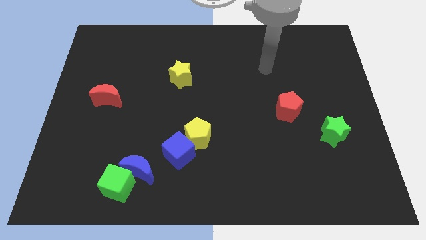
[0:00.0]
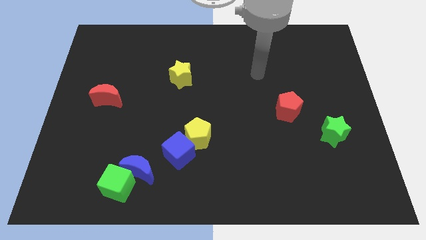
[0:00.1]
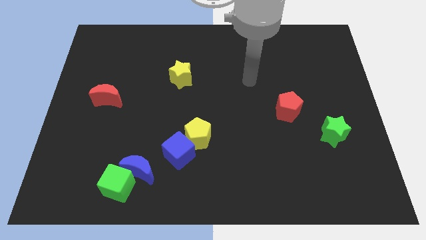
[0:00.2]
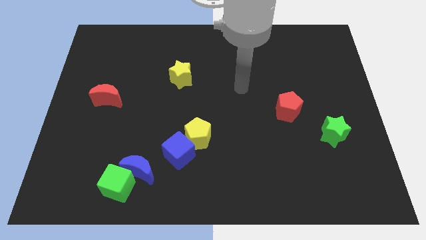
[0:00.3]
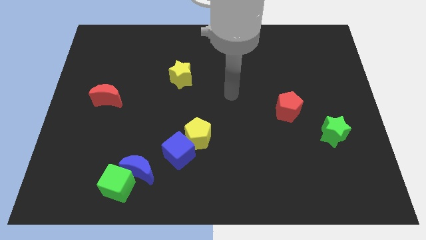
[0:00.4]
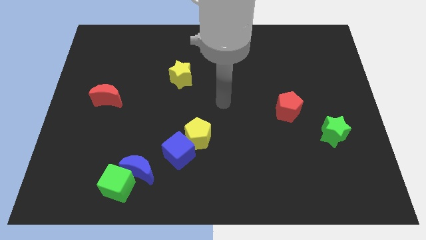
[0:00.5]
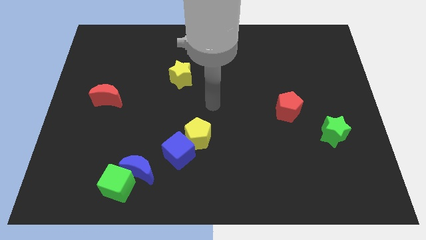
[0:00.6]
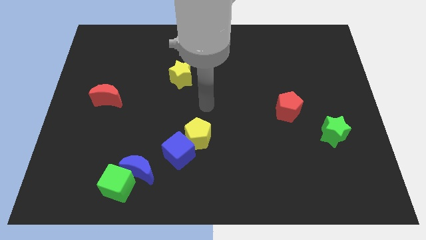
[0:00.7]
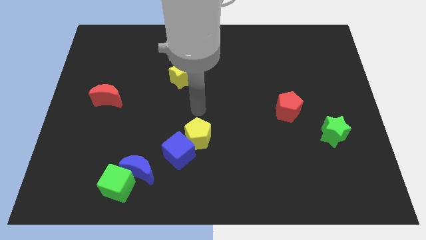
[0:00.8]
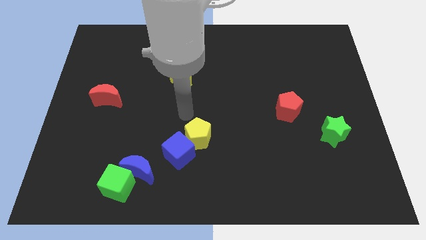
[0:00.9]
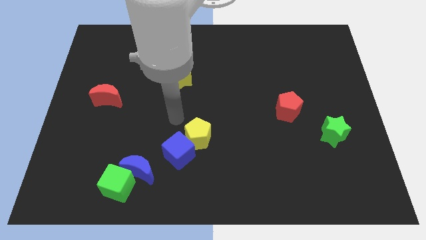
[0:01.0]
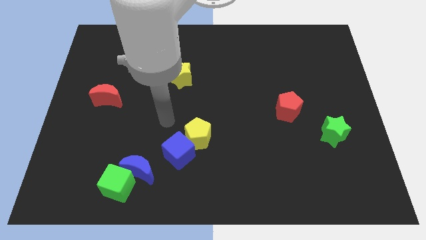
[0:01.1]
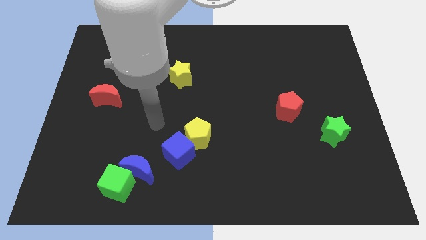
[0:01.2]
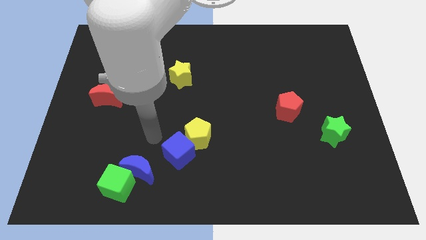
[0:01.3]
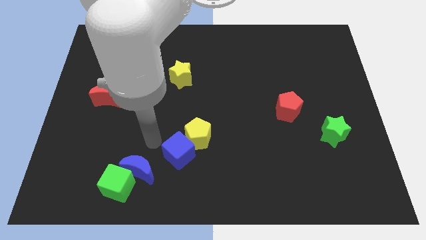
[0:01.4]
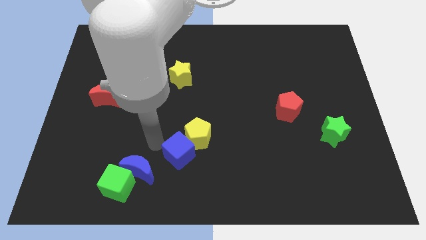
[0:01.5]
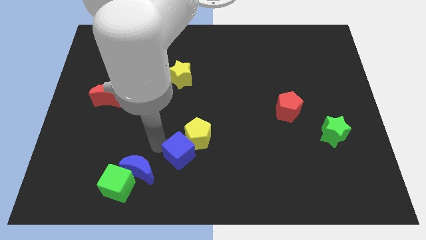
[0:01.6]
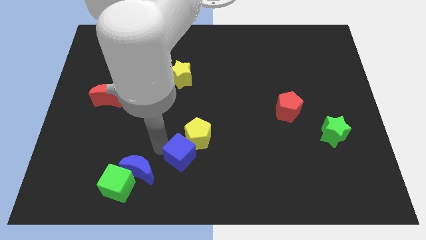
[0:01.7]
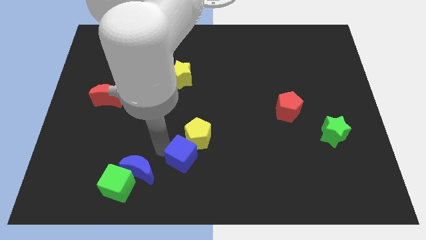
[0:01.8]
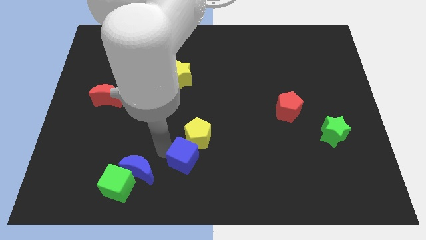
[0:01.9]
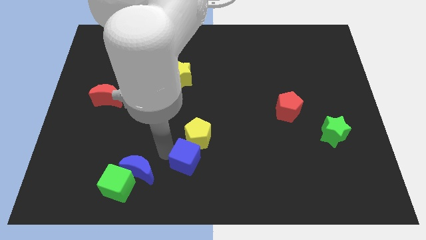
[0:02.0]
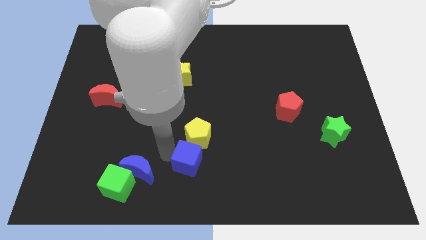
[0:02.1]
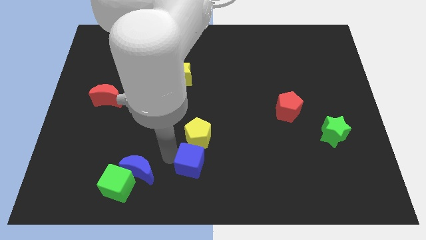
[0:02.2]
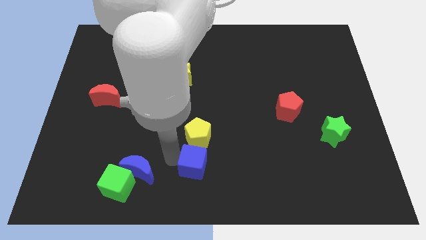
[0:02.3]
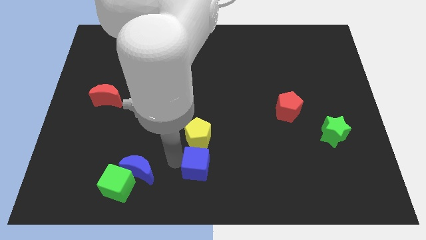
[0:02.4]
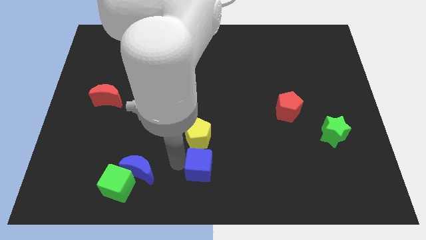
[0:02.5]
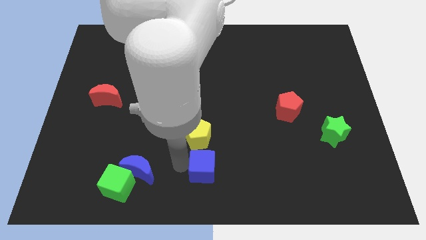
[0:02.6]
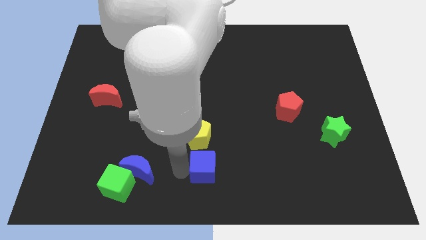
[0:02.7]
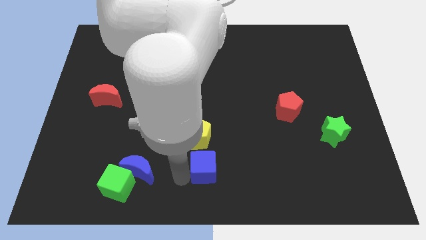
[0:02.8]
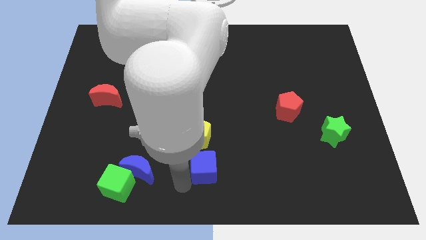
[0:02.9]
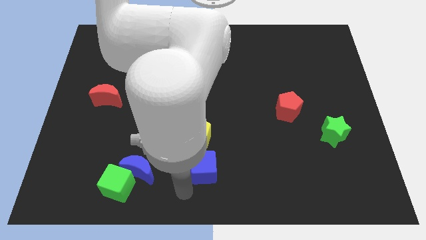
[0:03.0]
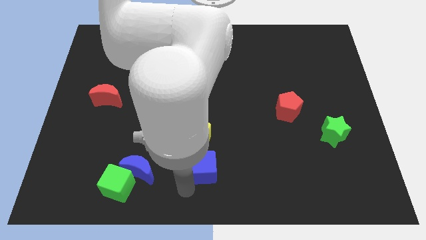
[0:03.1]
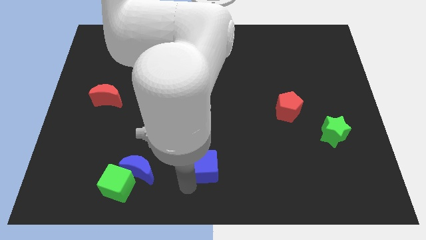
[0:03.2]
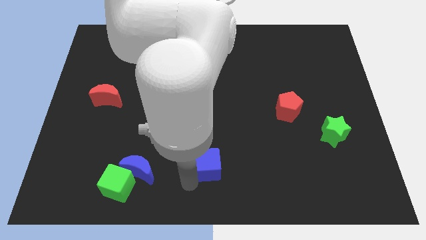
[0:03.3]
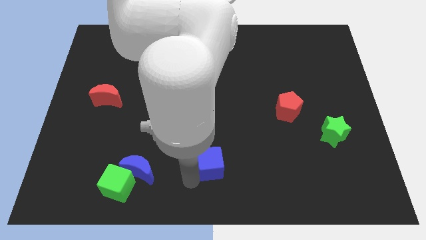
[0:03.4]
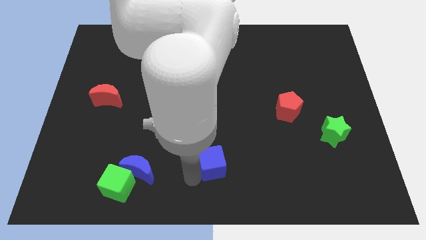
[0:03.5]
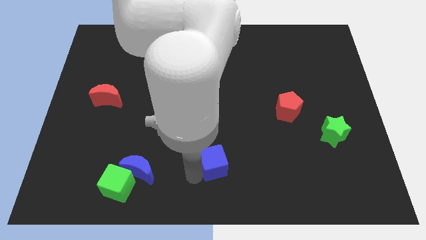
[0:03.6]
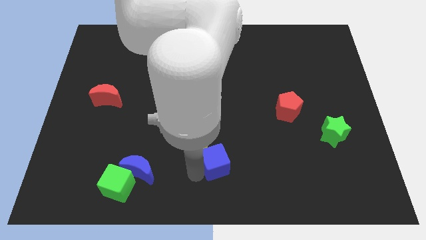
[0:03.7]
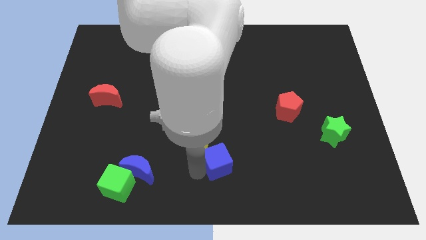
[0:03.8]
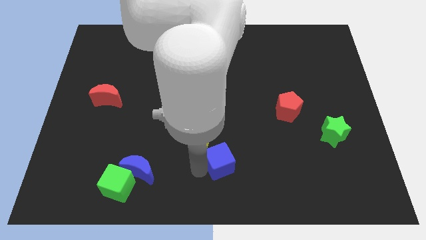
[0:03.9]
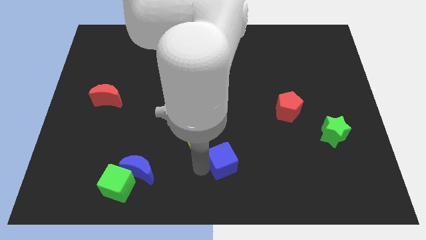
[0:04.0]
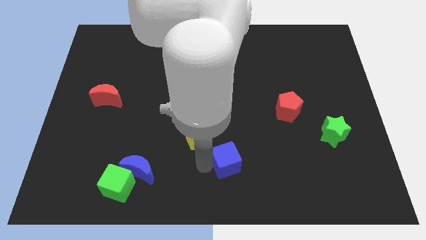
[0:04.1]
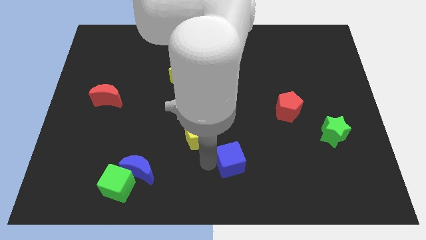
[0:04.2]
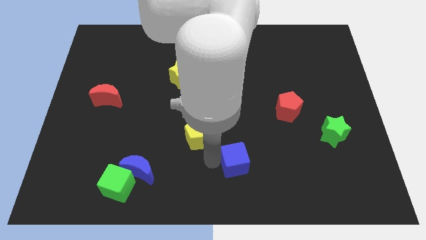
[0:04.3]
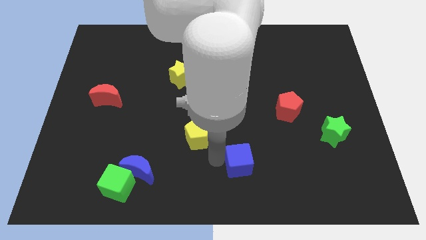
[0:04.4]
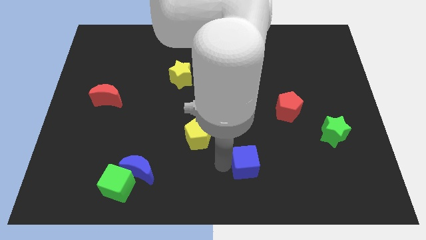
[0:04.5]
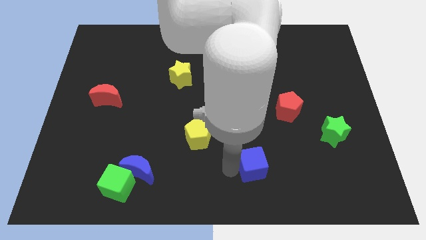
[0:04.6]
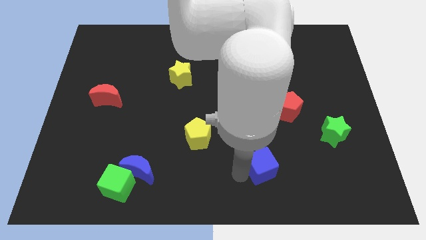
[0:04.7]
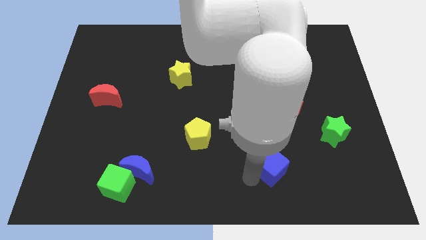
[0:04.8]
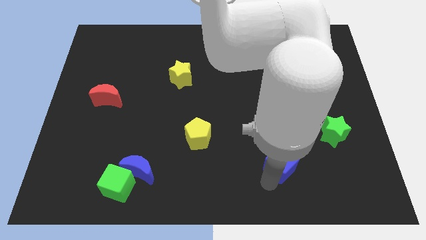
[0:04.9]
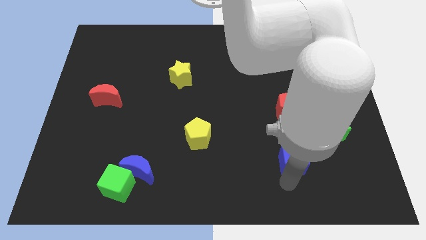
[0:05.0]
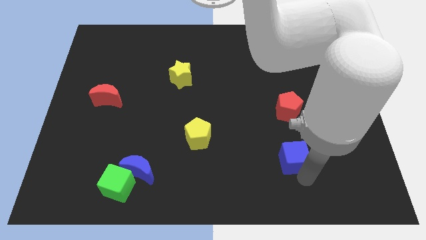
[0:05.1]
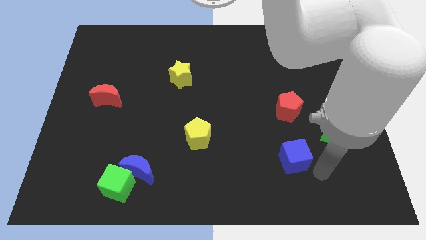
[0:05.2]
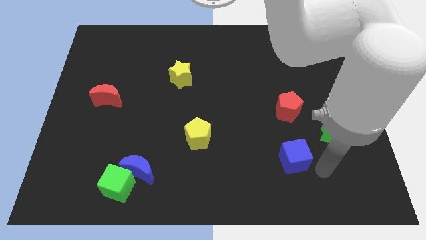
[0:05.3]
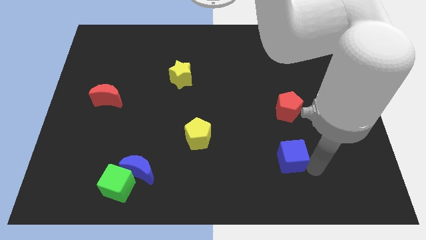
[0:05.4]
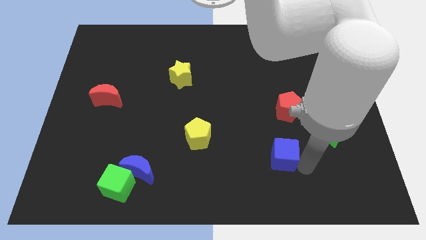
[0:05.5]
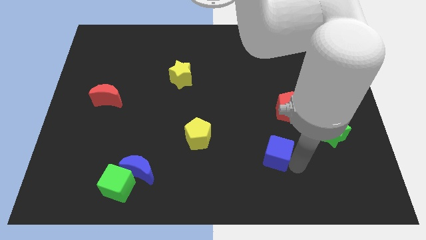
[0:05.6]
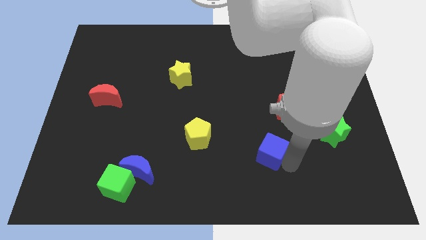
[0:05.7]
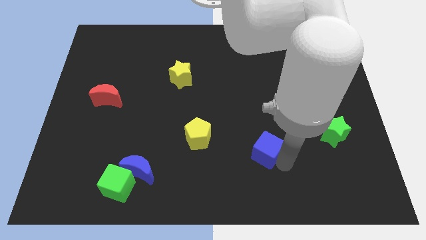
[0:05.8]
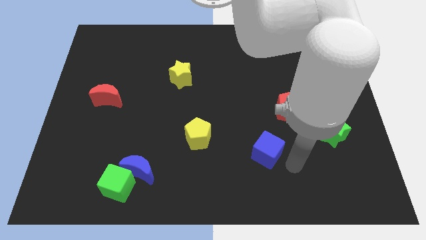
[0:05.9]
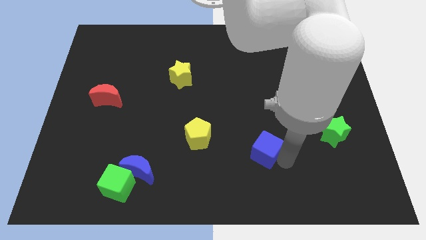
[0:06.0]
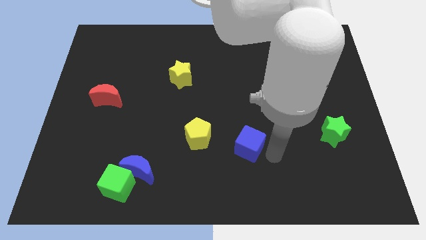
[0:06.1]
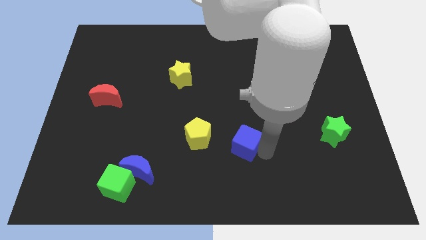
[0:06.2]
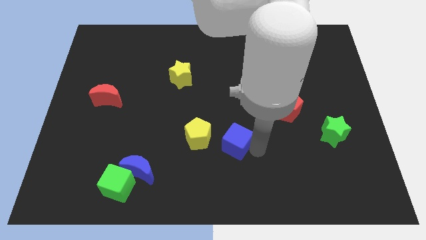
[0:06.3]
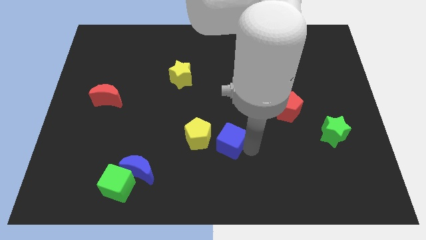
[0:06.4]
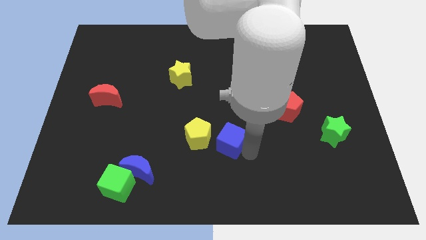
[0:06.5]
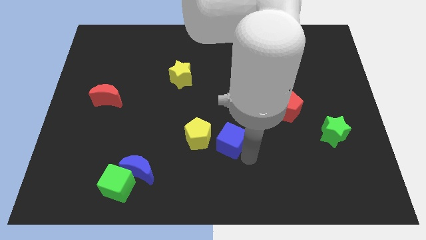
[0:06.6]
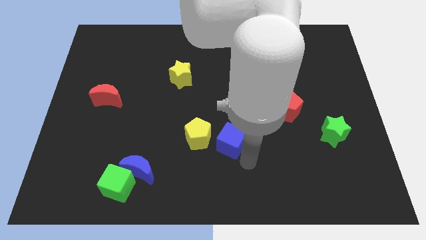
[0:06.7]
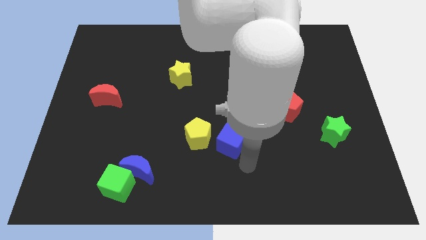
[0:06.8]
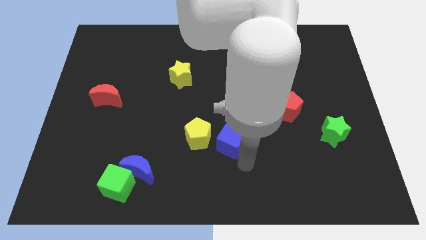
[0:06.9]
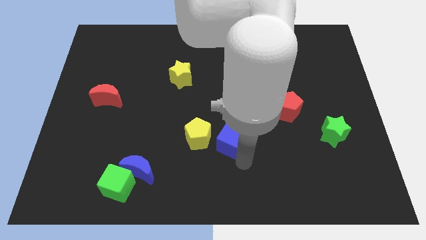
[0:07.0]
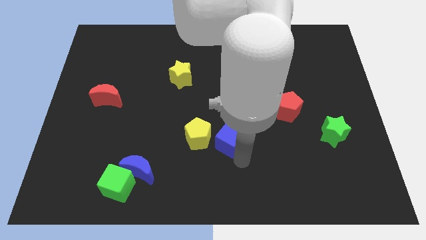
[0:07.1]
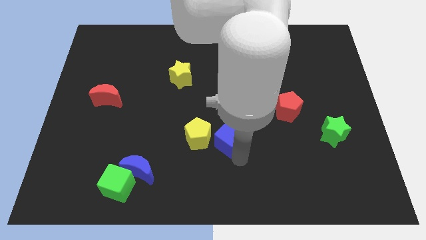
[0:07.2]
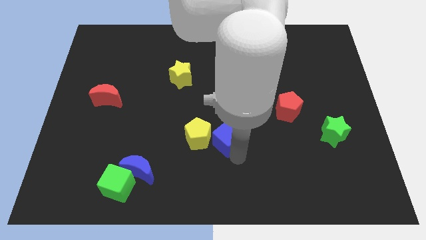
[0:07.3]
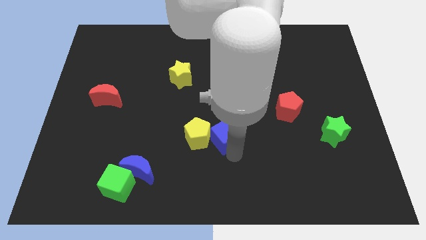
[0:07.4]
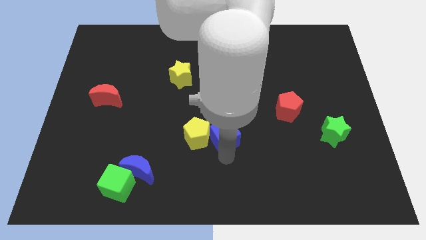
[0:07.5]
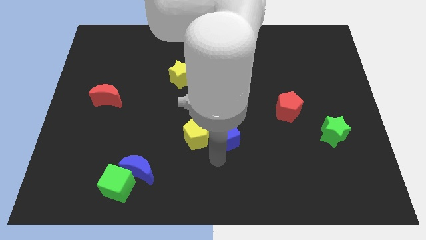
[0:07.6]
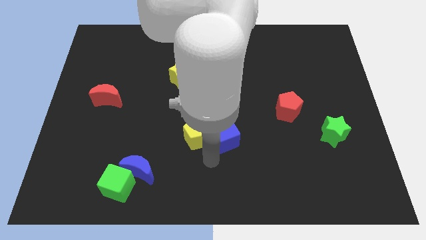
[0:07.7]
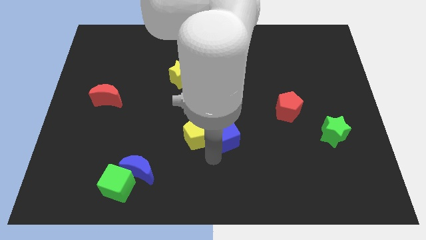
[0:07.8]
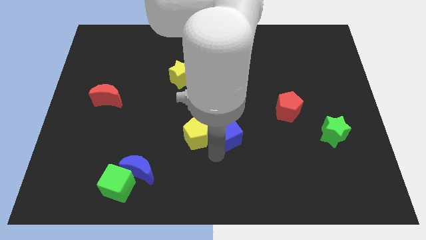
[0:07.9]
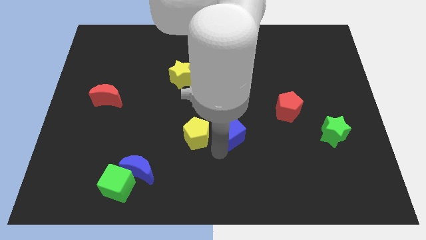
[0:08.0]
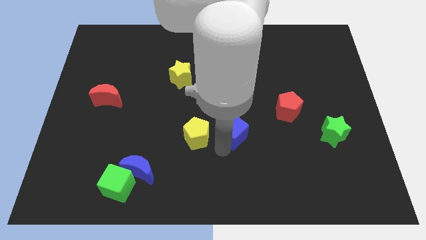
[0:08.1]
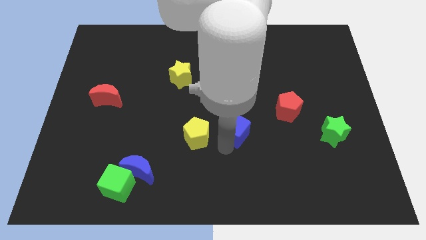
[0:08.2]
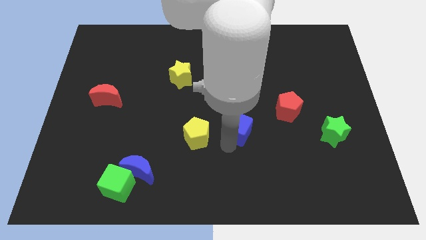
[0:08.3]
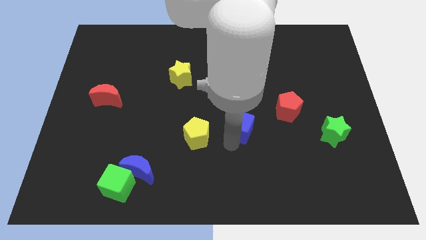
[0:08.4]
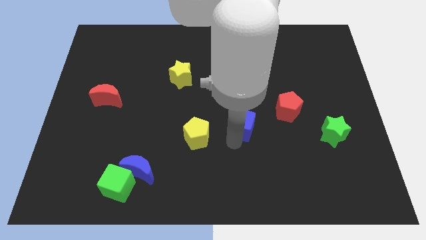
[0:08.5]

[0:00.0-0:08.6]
move the blue cube left of the red pentagon
